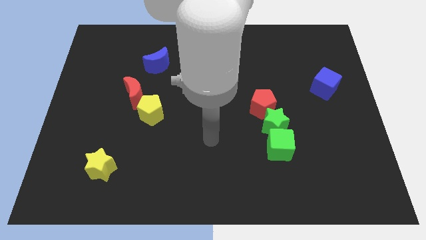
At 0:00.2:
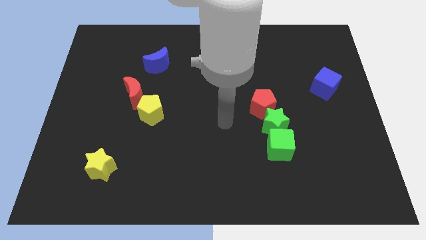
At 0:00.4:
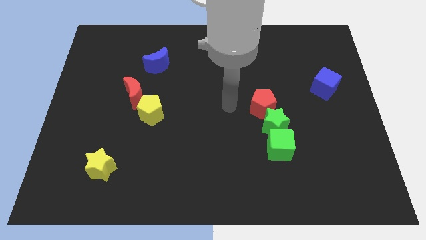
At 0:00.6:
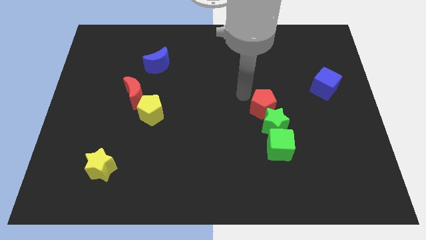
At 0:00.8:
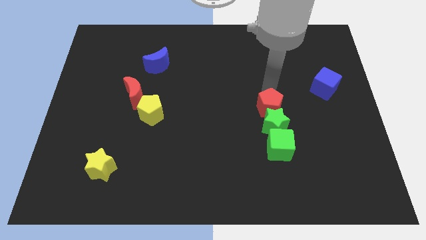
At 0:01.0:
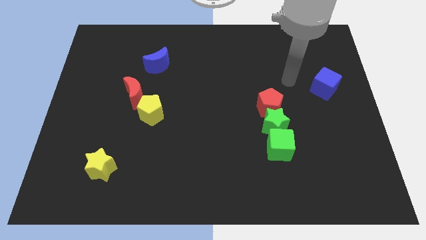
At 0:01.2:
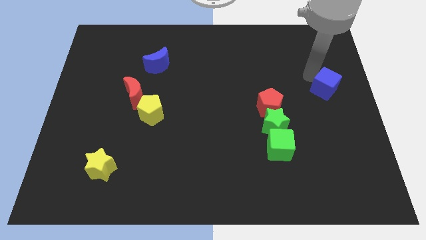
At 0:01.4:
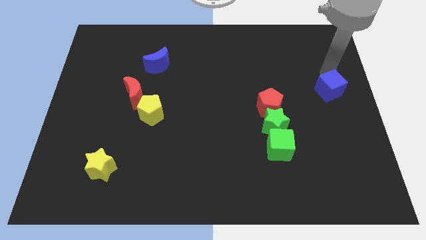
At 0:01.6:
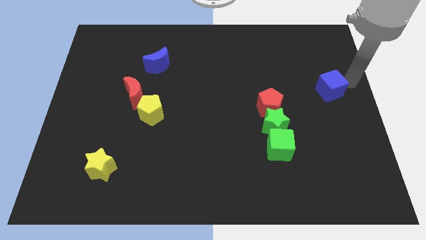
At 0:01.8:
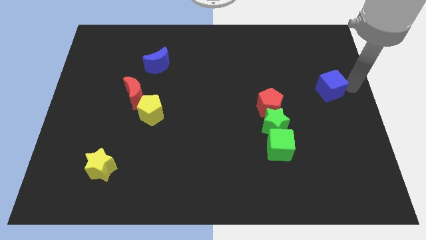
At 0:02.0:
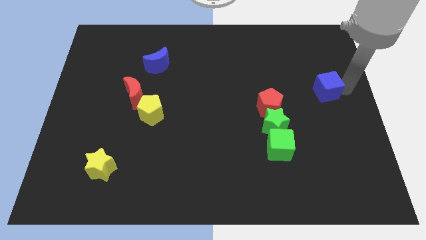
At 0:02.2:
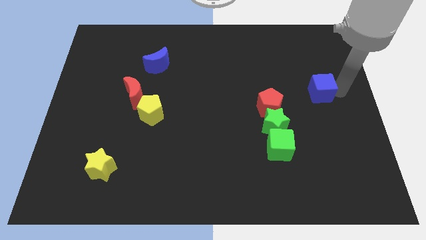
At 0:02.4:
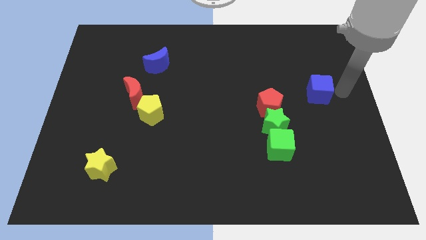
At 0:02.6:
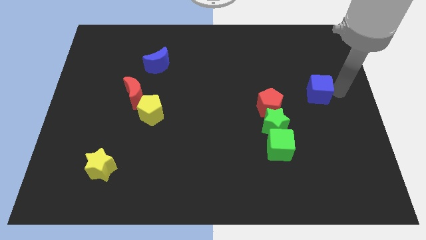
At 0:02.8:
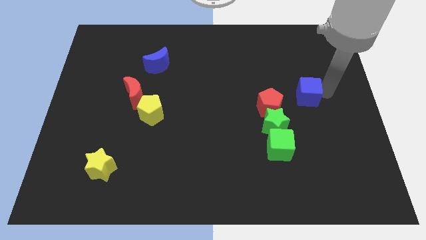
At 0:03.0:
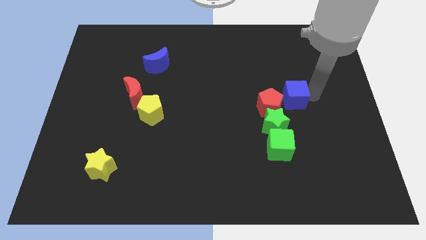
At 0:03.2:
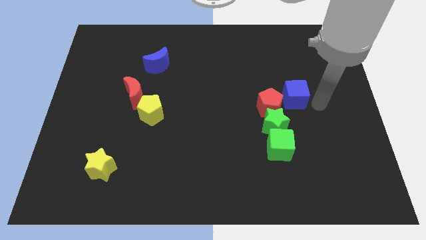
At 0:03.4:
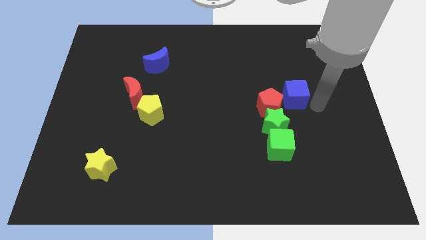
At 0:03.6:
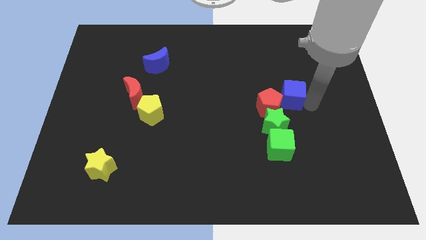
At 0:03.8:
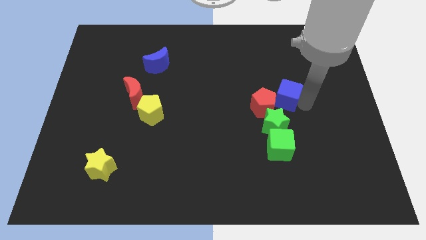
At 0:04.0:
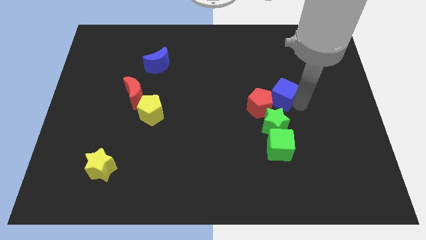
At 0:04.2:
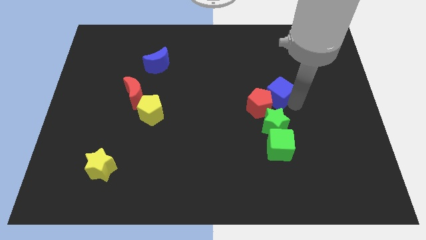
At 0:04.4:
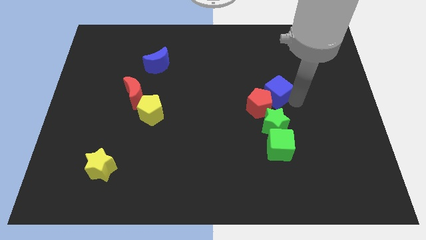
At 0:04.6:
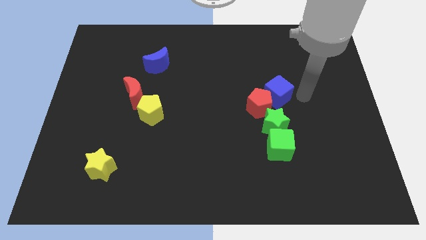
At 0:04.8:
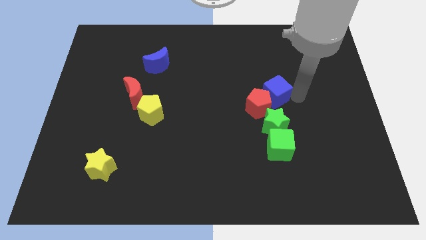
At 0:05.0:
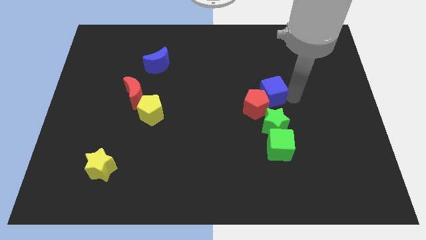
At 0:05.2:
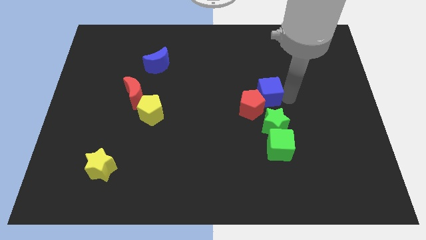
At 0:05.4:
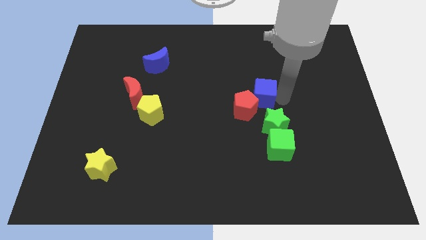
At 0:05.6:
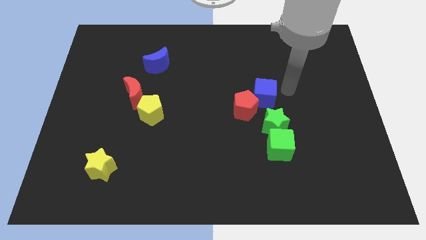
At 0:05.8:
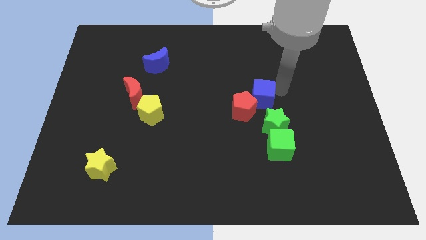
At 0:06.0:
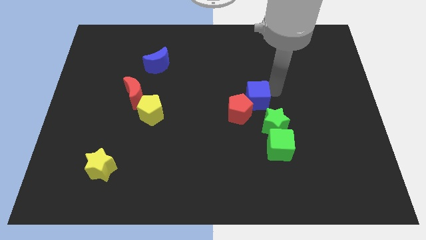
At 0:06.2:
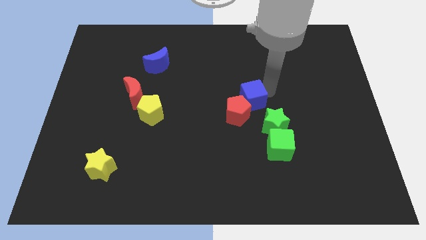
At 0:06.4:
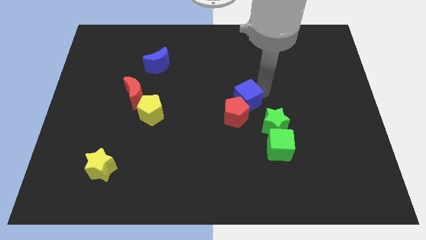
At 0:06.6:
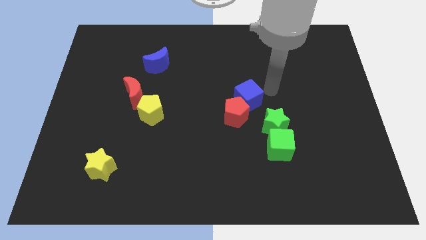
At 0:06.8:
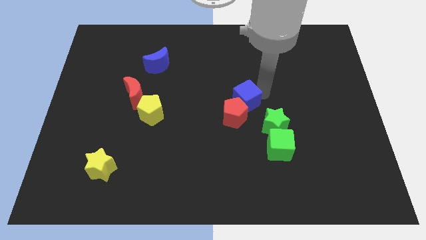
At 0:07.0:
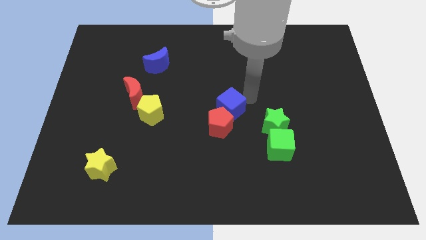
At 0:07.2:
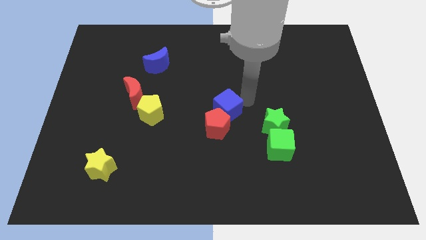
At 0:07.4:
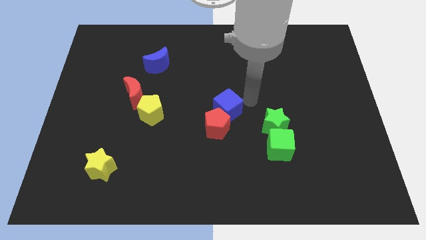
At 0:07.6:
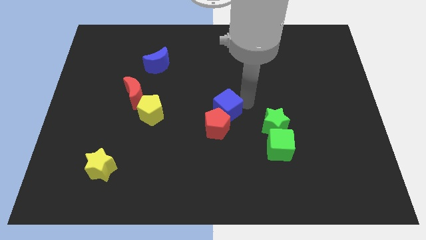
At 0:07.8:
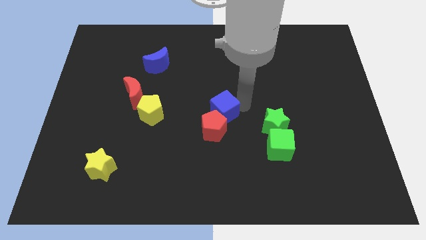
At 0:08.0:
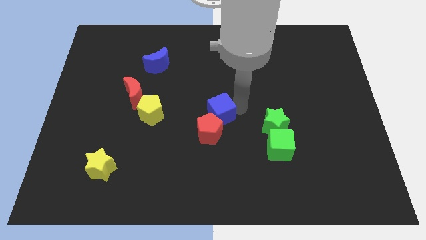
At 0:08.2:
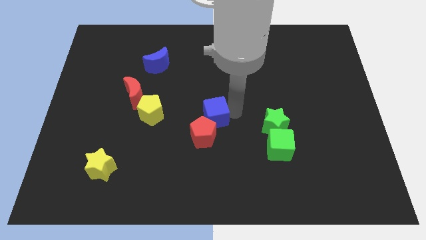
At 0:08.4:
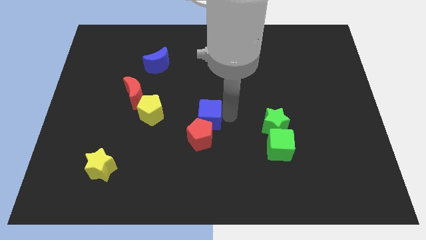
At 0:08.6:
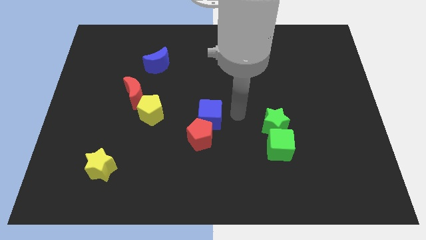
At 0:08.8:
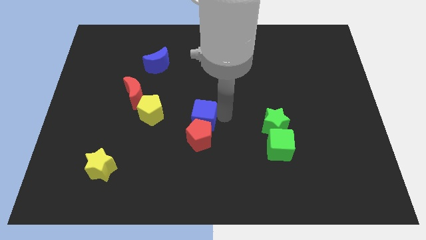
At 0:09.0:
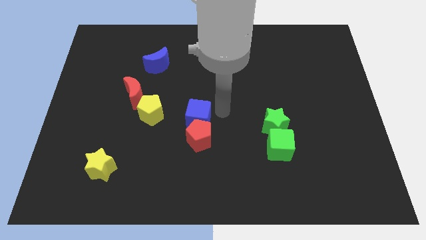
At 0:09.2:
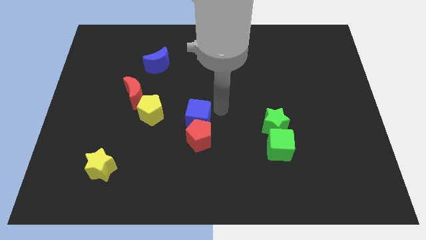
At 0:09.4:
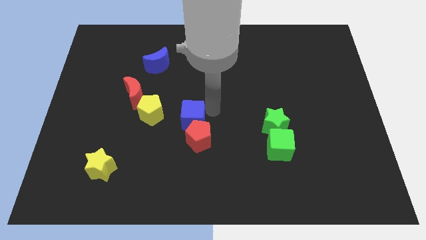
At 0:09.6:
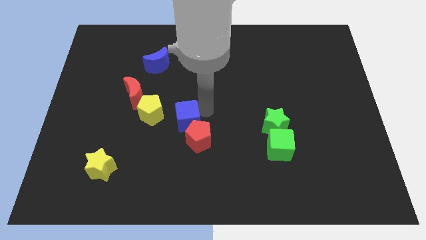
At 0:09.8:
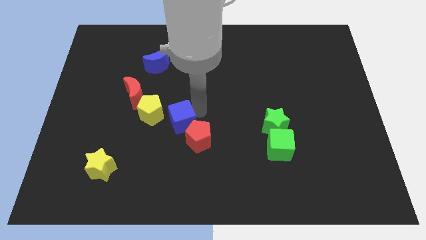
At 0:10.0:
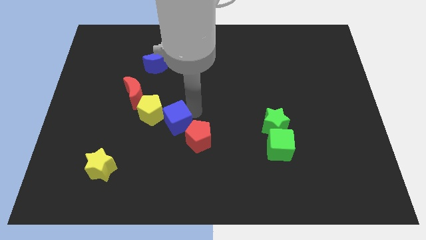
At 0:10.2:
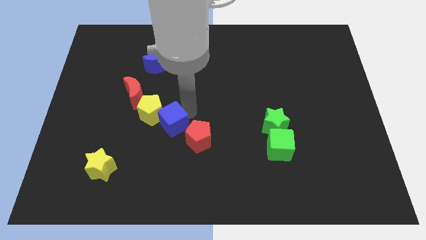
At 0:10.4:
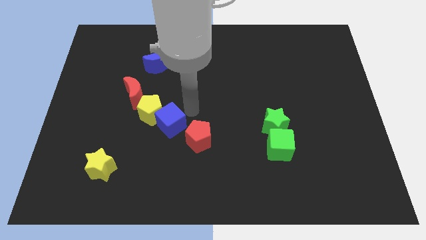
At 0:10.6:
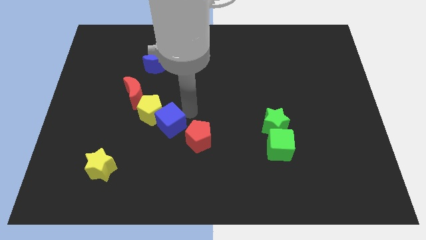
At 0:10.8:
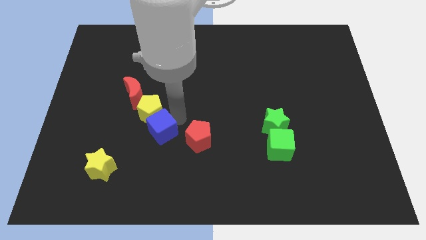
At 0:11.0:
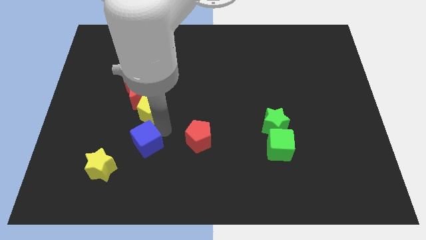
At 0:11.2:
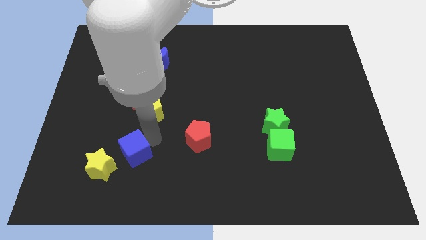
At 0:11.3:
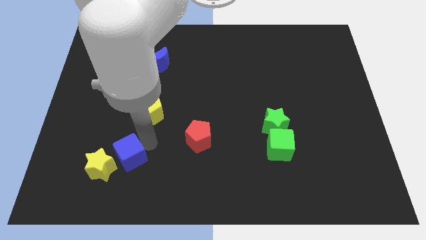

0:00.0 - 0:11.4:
slide the blue cube towards the yellow star

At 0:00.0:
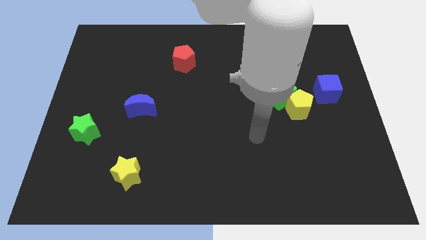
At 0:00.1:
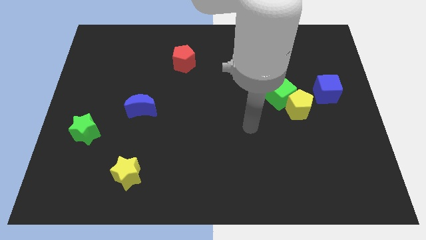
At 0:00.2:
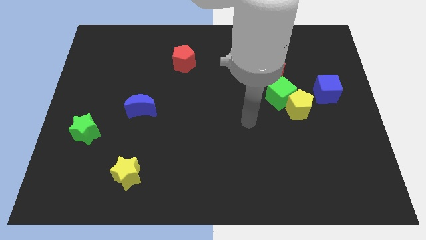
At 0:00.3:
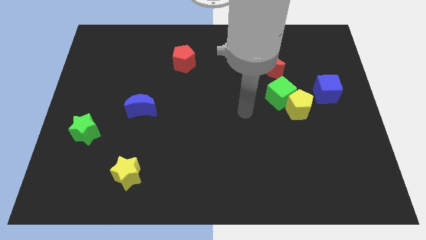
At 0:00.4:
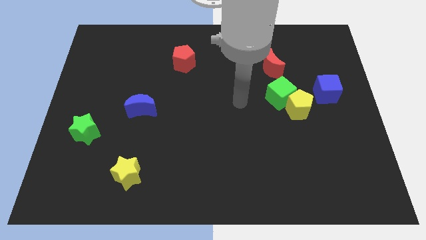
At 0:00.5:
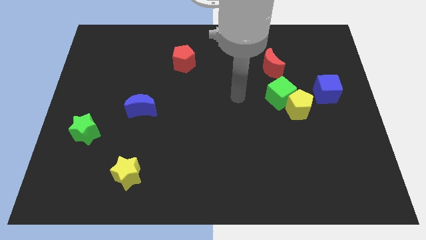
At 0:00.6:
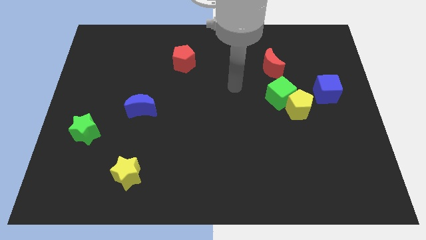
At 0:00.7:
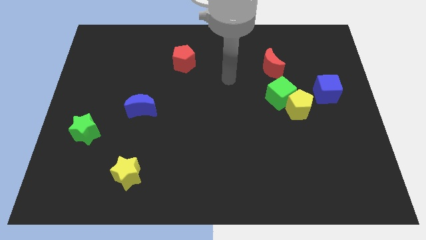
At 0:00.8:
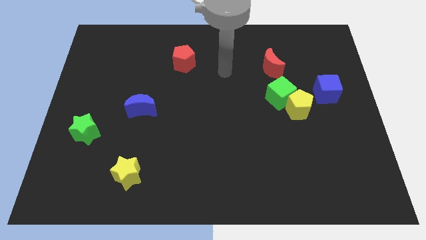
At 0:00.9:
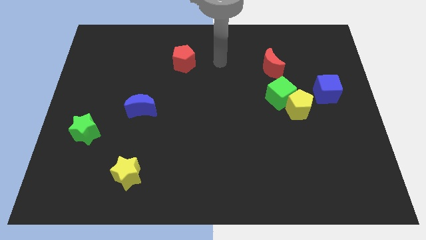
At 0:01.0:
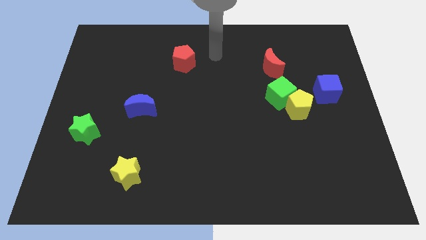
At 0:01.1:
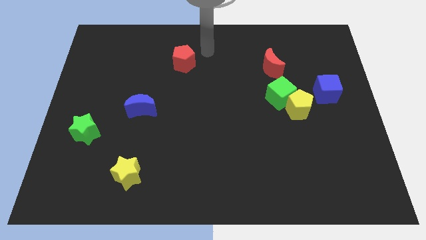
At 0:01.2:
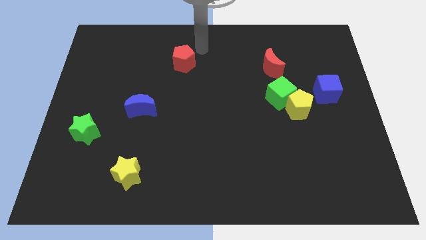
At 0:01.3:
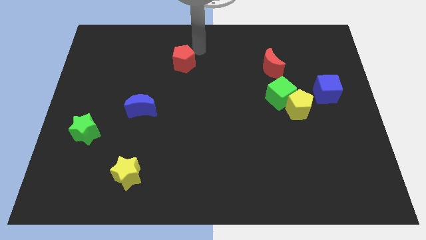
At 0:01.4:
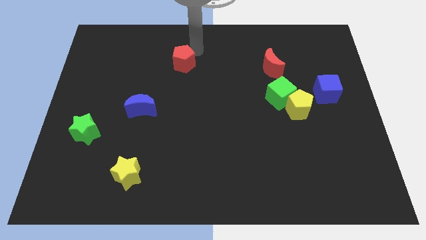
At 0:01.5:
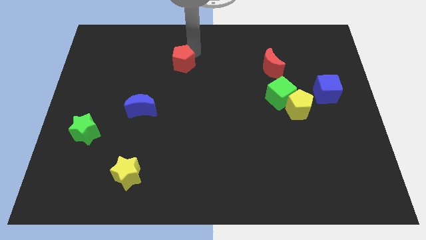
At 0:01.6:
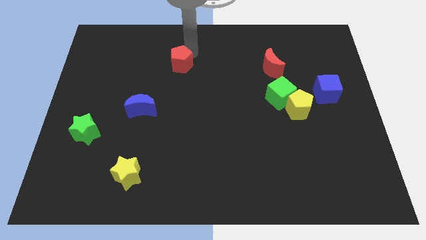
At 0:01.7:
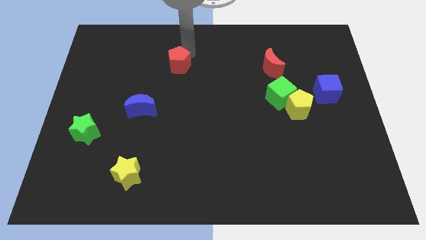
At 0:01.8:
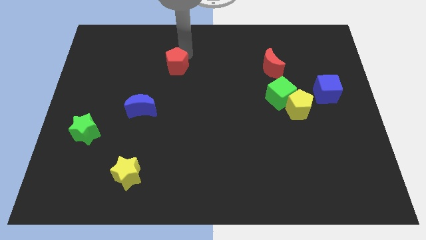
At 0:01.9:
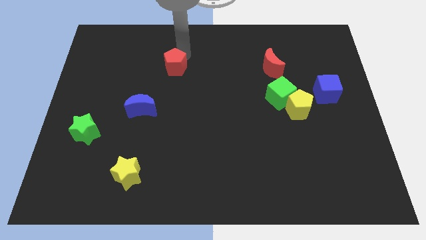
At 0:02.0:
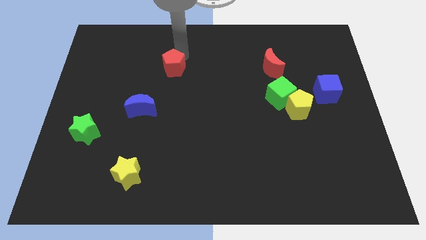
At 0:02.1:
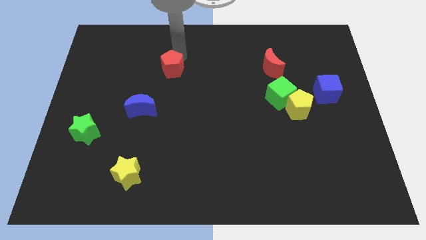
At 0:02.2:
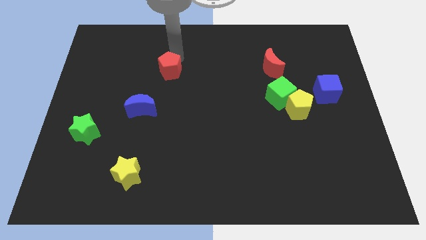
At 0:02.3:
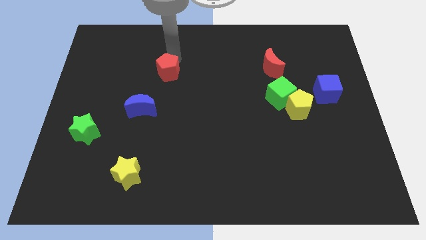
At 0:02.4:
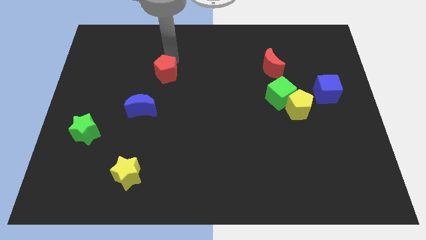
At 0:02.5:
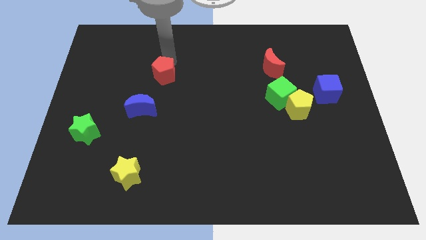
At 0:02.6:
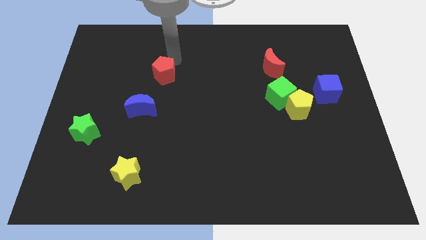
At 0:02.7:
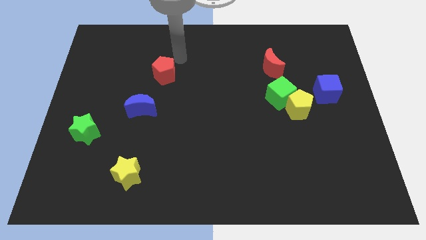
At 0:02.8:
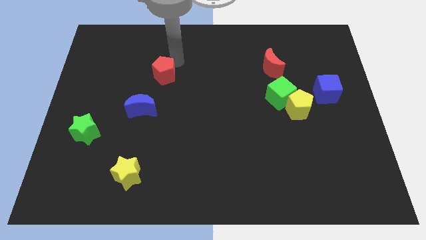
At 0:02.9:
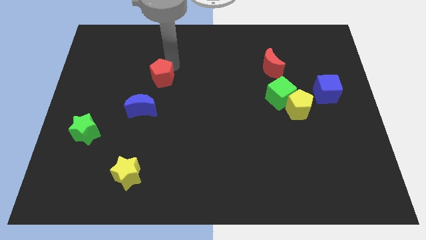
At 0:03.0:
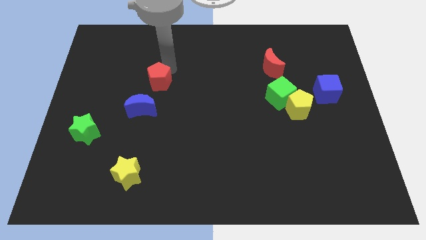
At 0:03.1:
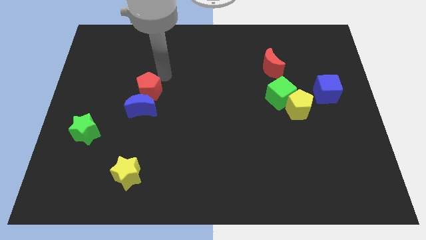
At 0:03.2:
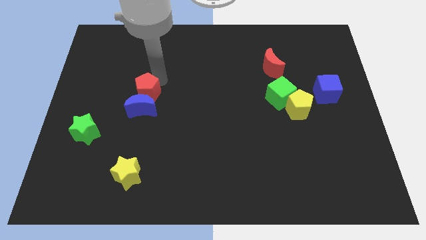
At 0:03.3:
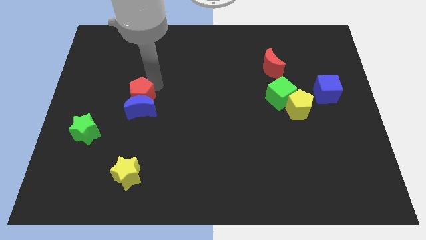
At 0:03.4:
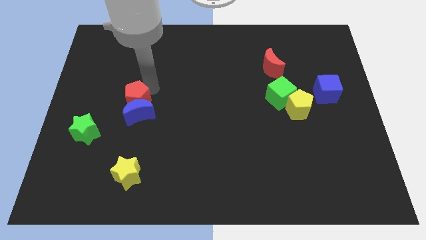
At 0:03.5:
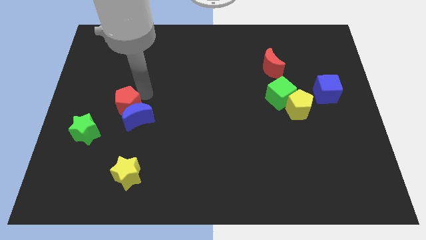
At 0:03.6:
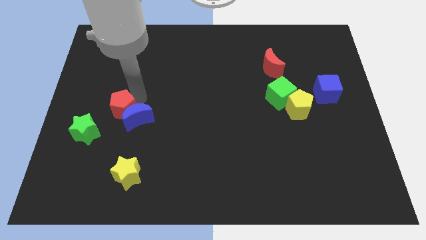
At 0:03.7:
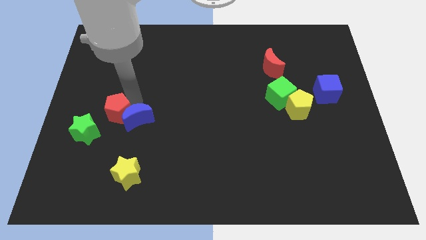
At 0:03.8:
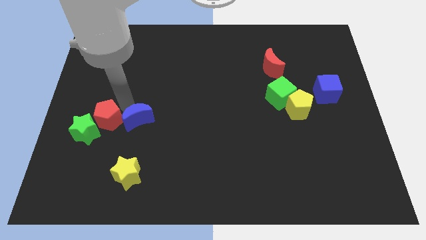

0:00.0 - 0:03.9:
move the red pentagon to the green star
